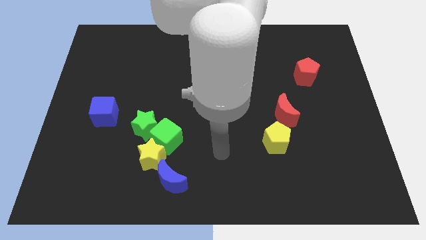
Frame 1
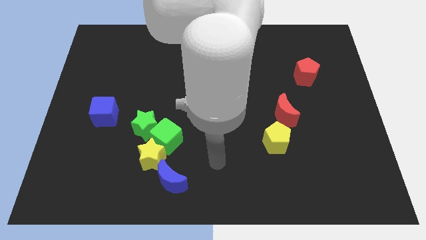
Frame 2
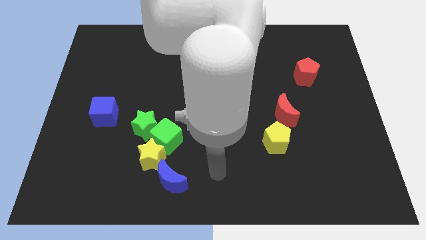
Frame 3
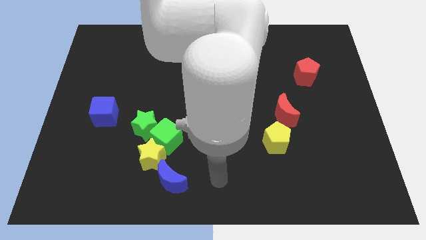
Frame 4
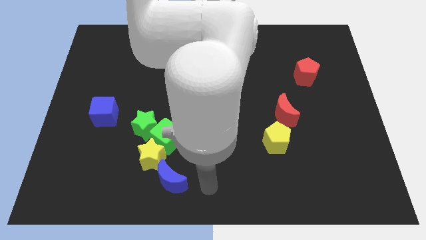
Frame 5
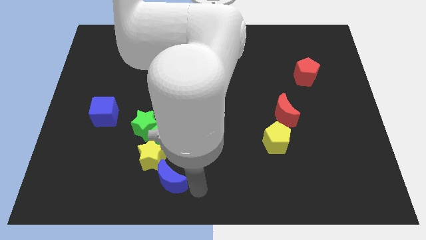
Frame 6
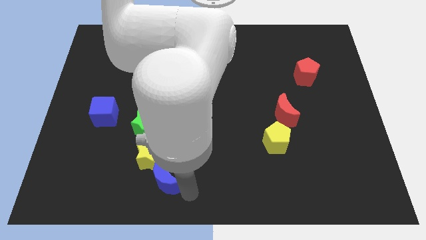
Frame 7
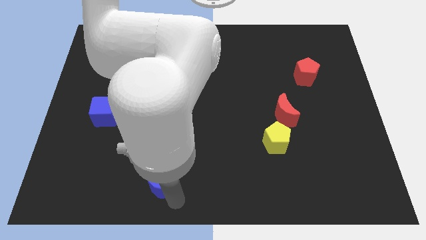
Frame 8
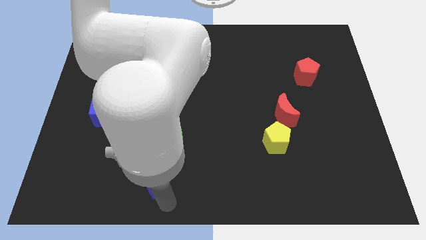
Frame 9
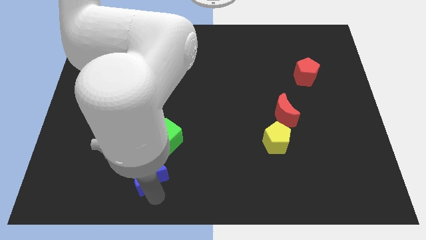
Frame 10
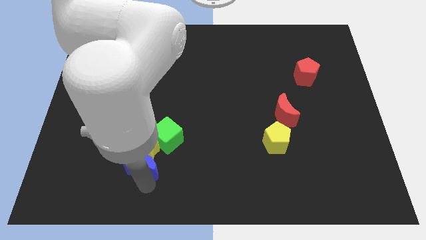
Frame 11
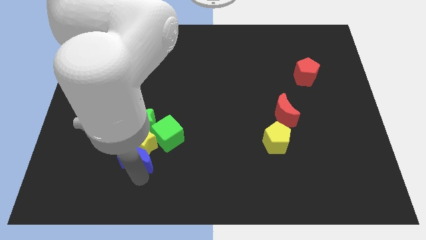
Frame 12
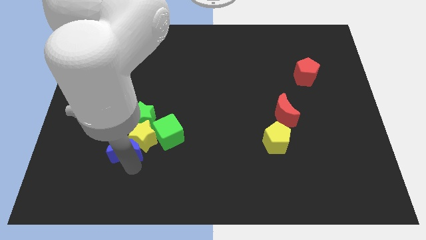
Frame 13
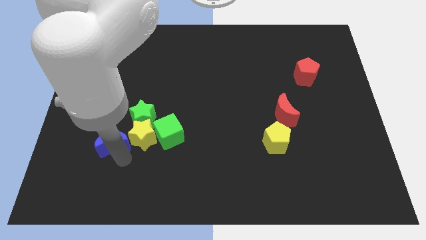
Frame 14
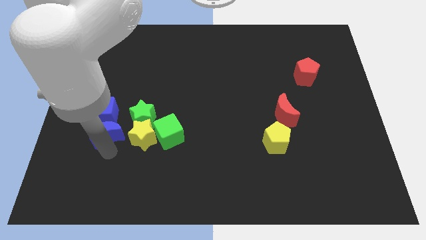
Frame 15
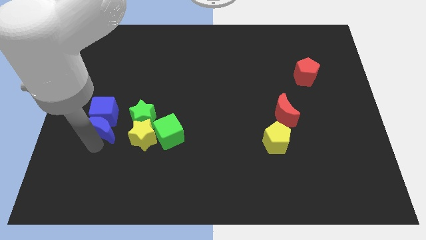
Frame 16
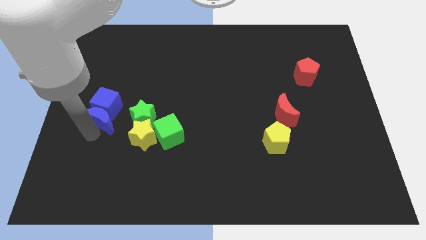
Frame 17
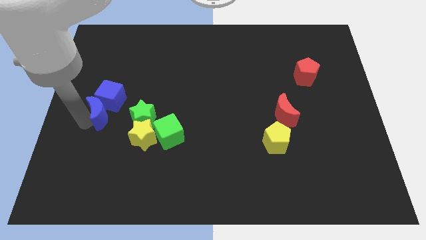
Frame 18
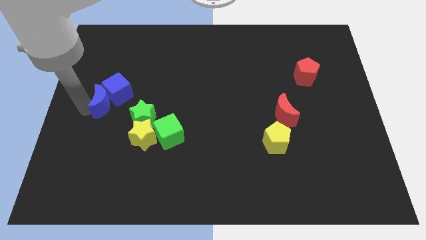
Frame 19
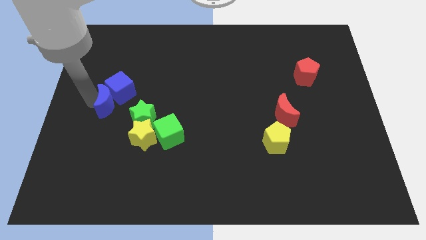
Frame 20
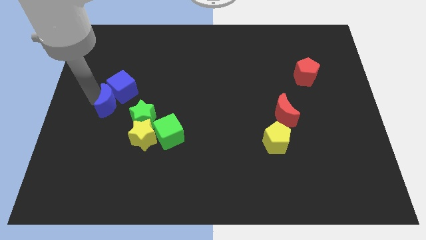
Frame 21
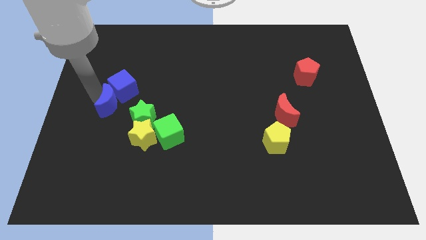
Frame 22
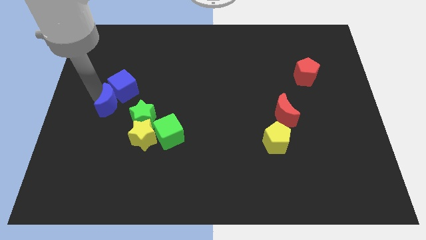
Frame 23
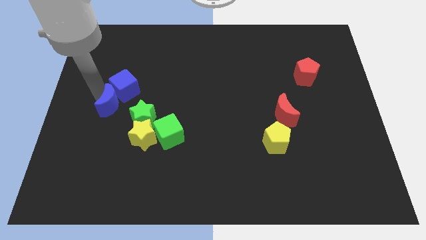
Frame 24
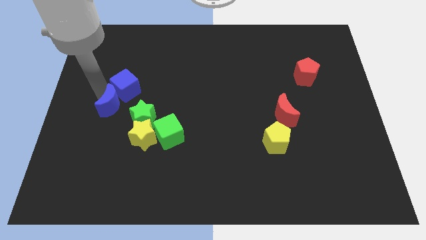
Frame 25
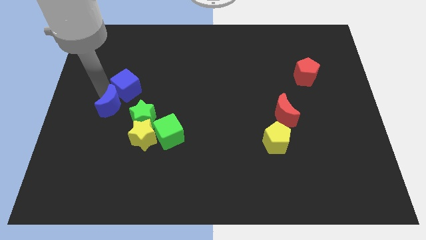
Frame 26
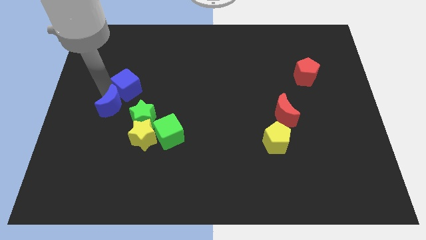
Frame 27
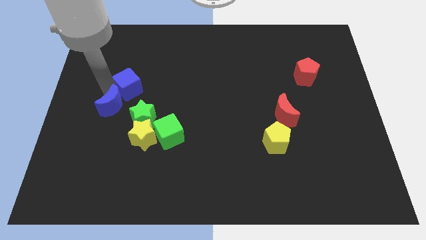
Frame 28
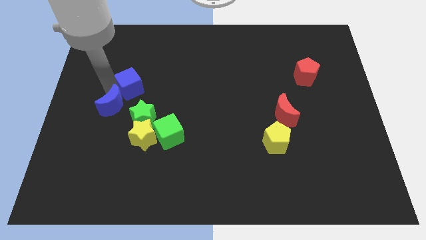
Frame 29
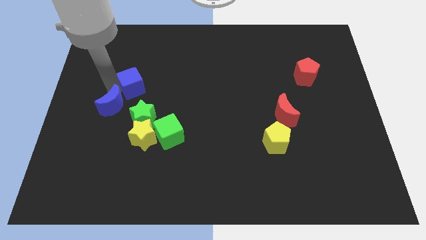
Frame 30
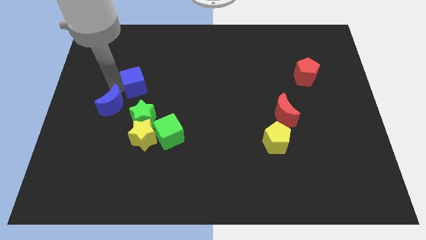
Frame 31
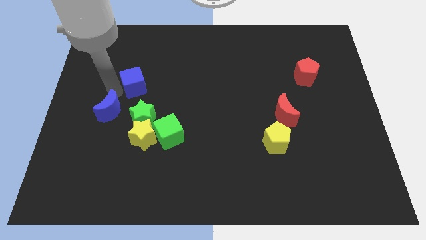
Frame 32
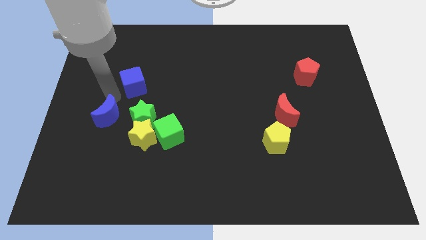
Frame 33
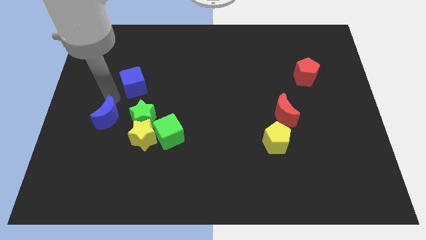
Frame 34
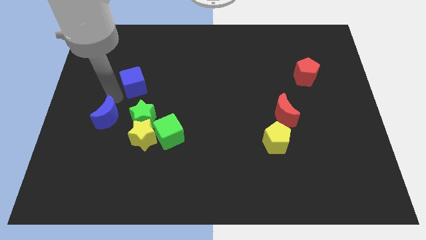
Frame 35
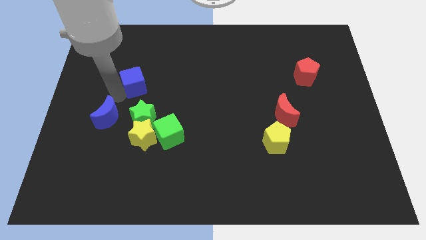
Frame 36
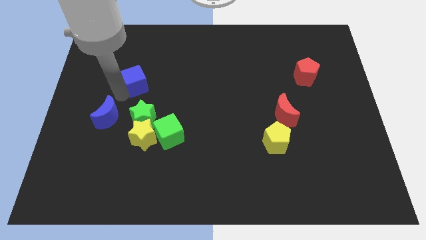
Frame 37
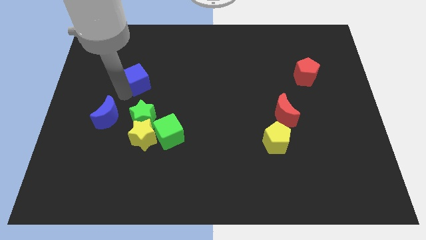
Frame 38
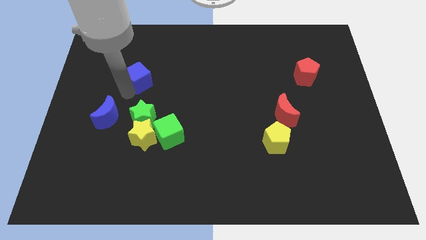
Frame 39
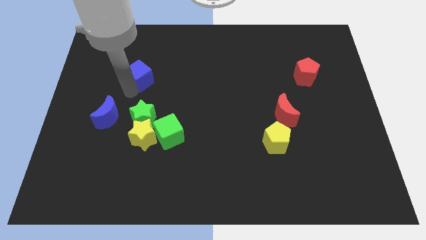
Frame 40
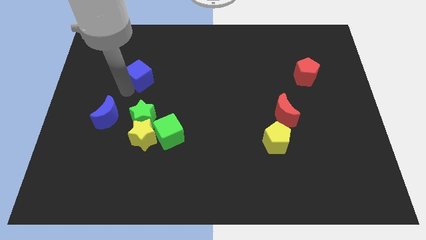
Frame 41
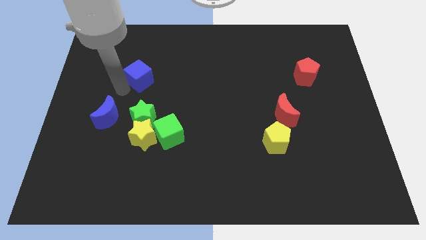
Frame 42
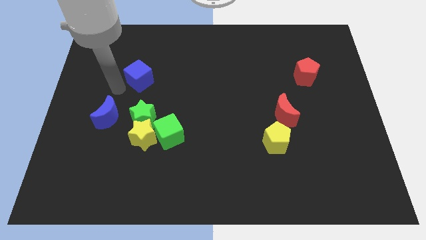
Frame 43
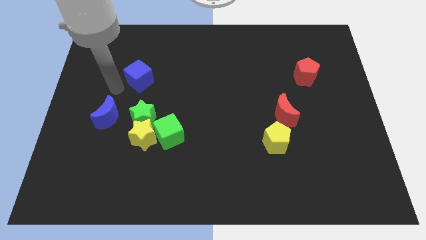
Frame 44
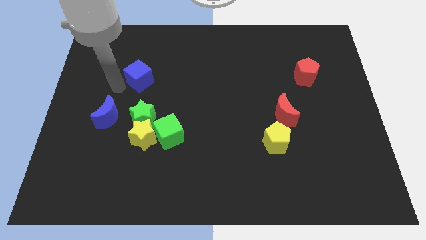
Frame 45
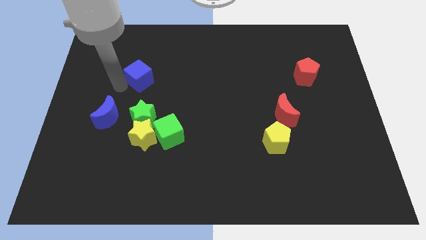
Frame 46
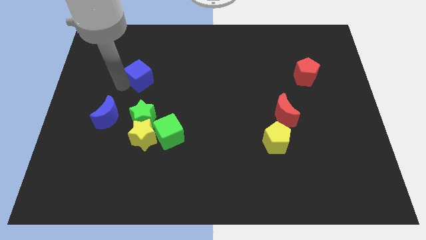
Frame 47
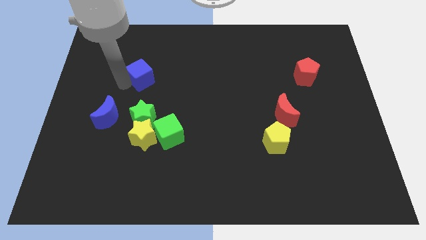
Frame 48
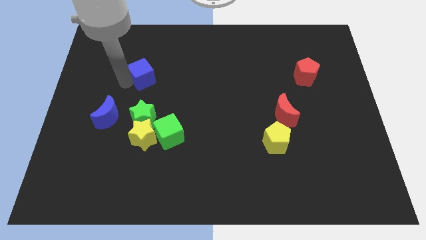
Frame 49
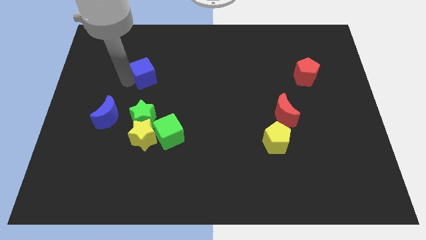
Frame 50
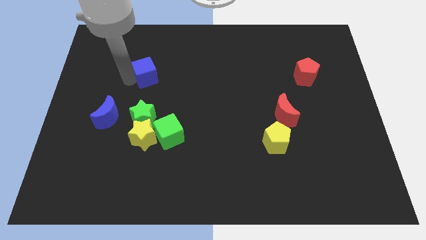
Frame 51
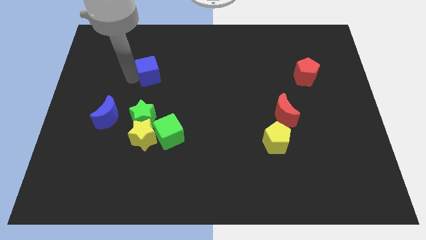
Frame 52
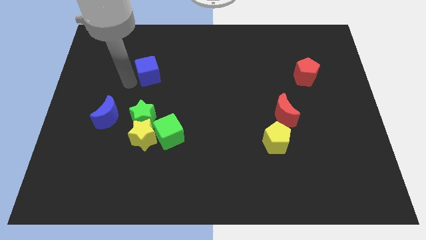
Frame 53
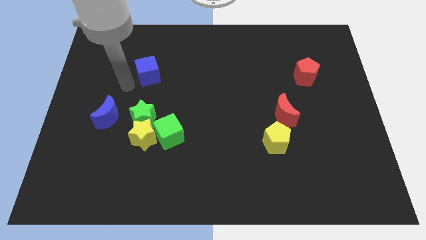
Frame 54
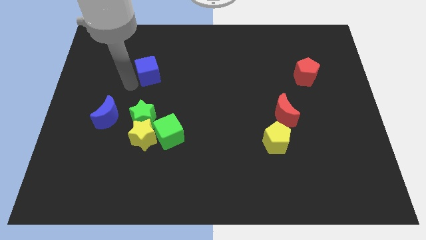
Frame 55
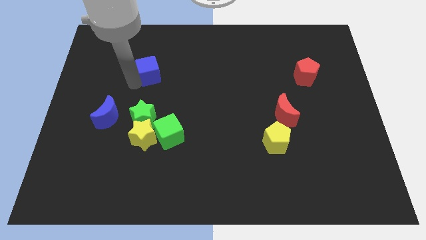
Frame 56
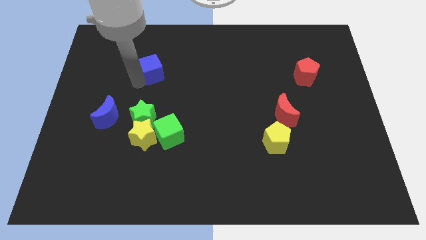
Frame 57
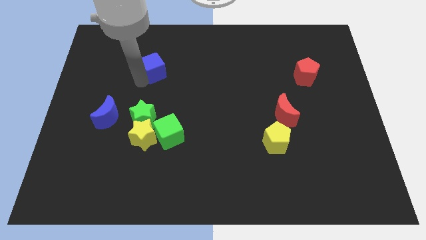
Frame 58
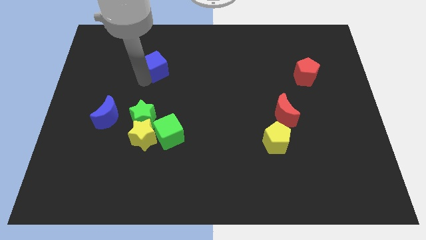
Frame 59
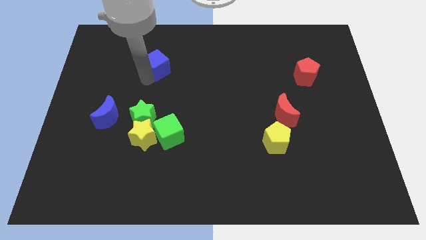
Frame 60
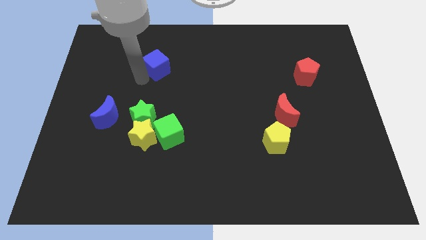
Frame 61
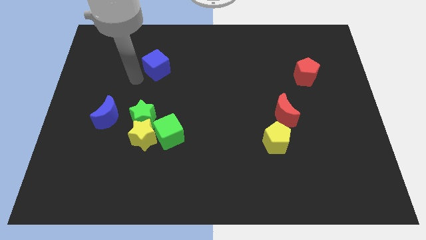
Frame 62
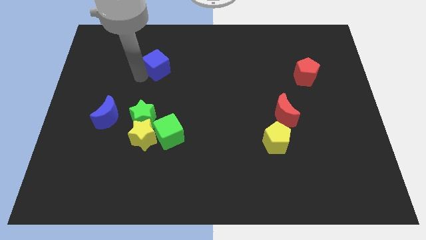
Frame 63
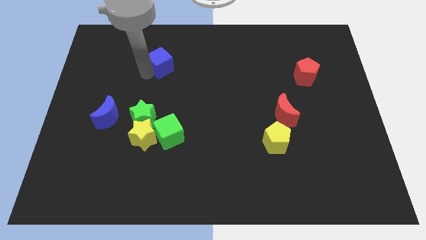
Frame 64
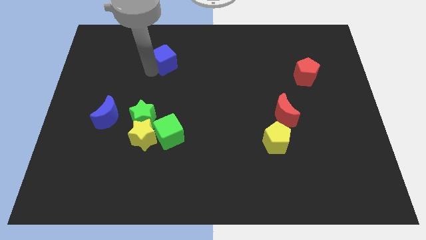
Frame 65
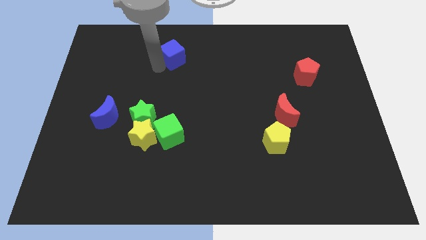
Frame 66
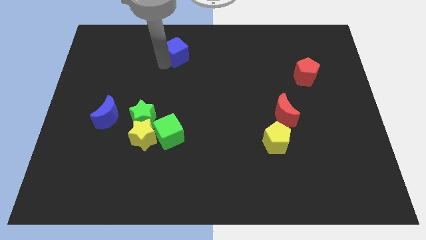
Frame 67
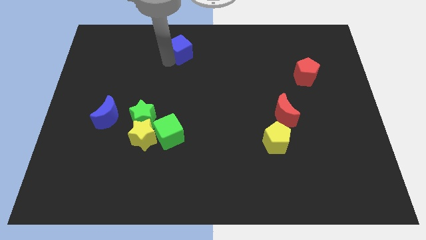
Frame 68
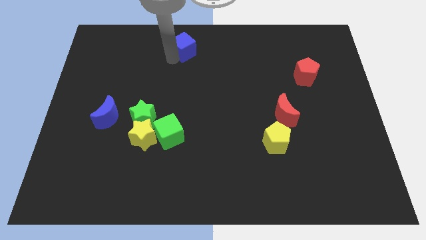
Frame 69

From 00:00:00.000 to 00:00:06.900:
push the blue cube to the towards your base
